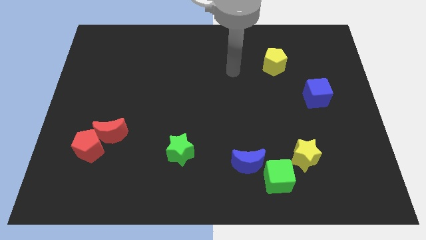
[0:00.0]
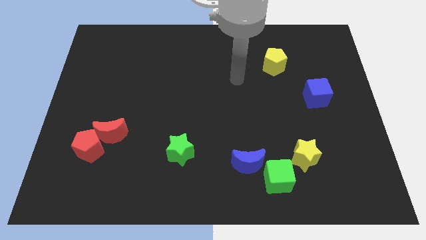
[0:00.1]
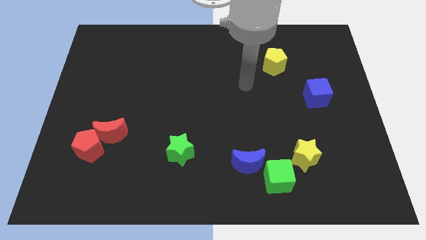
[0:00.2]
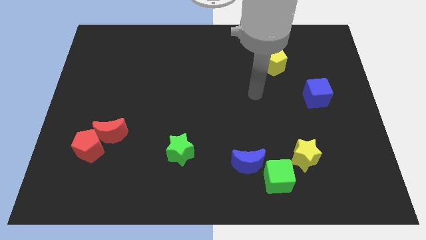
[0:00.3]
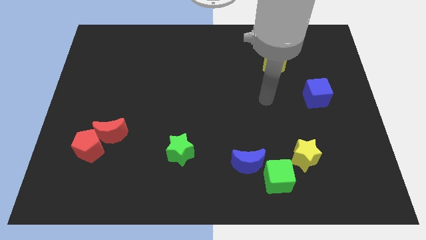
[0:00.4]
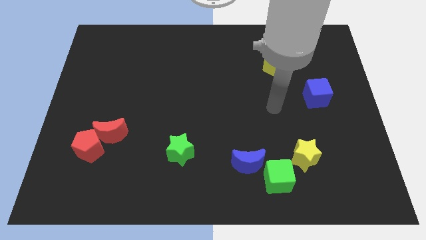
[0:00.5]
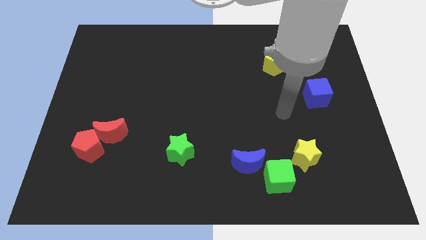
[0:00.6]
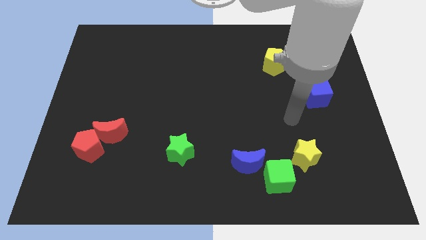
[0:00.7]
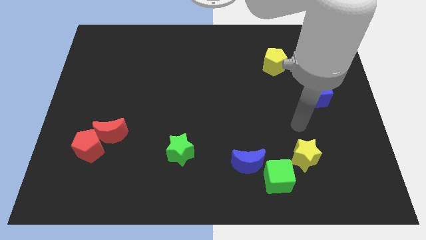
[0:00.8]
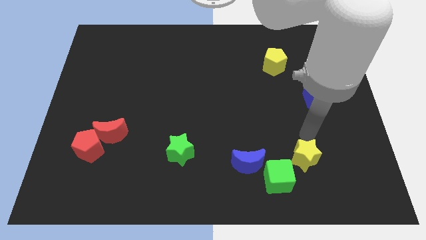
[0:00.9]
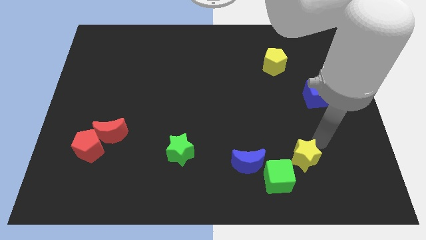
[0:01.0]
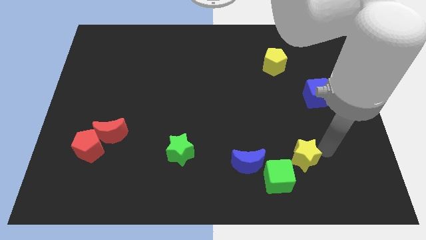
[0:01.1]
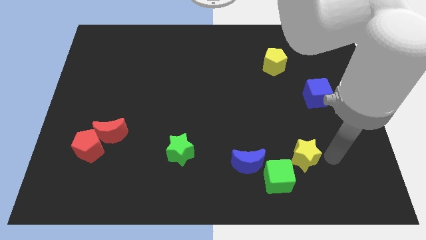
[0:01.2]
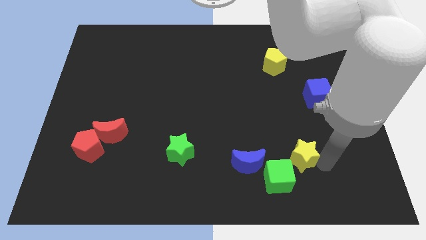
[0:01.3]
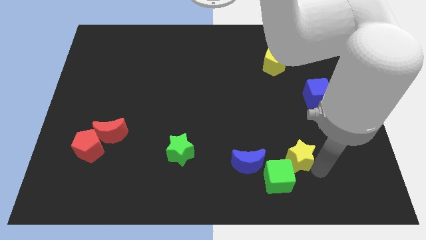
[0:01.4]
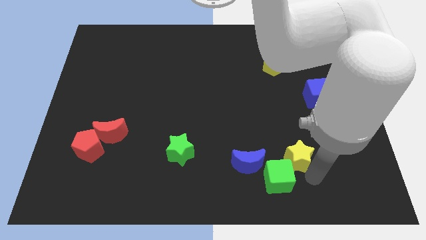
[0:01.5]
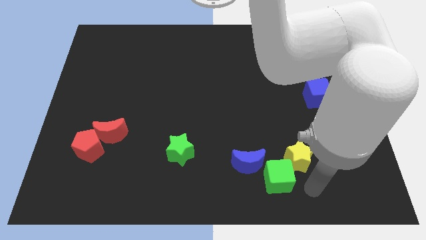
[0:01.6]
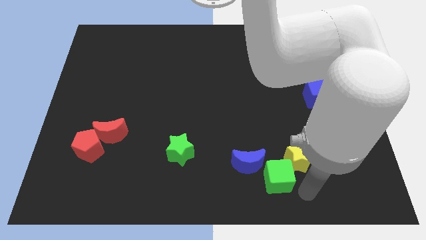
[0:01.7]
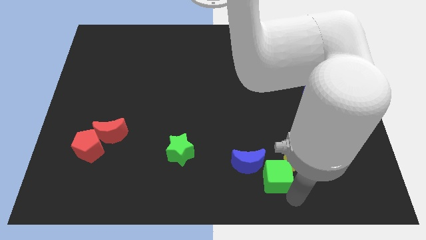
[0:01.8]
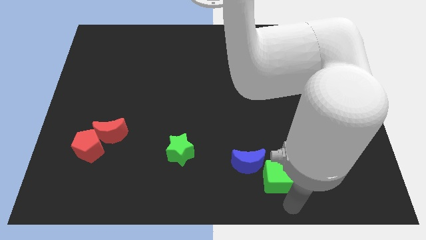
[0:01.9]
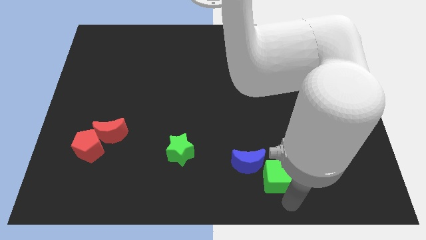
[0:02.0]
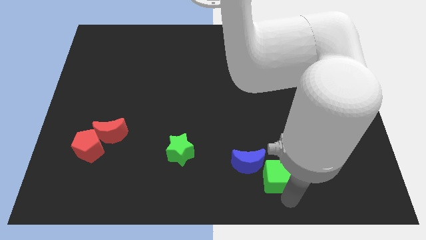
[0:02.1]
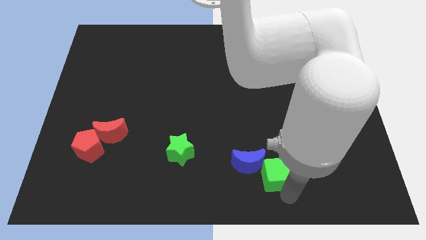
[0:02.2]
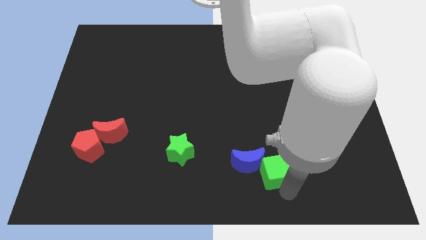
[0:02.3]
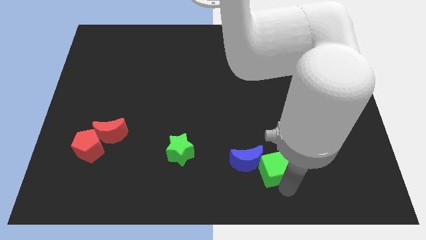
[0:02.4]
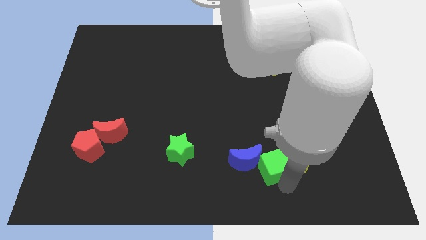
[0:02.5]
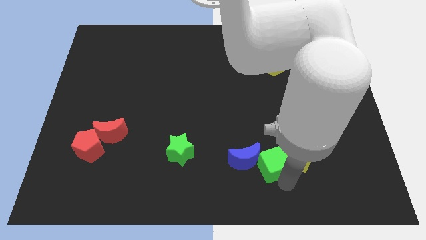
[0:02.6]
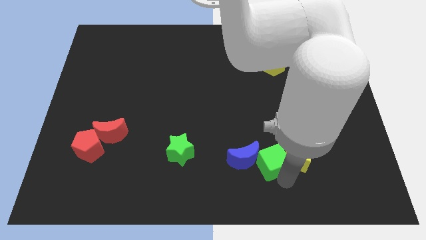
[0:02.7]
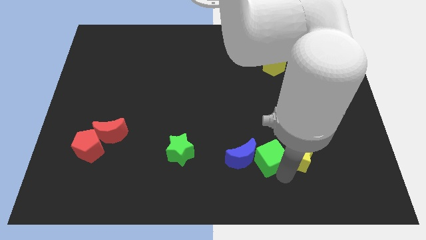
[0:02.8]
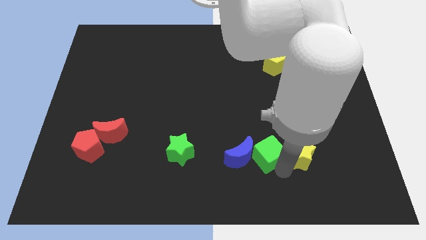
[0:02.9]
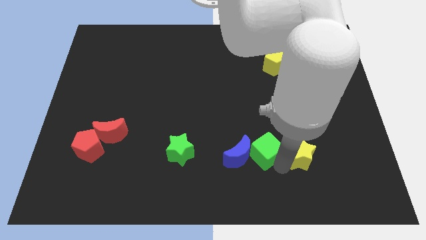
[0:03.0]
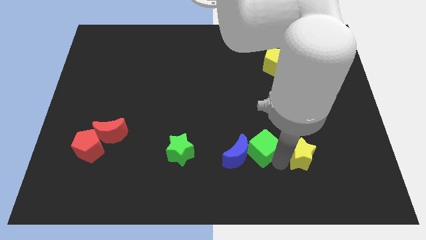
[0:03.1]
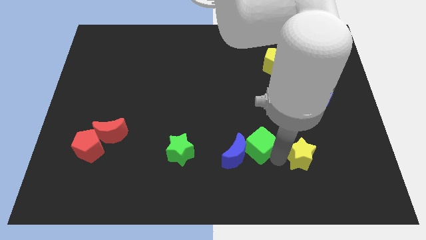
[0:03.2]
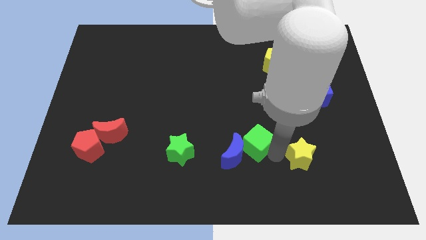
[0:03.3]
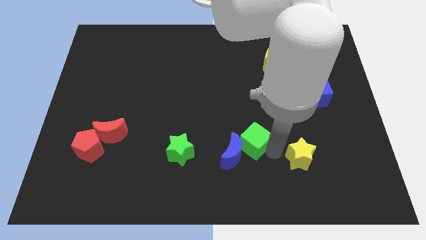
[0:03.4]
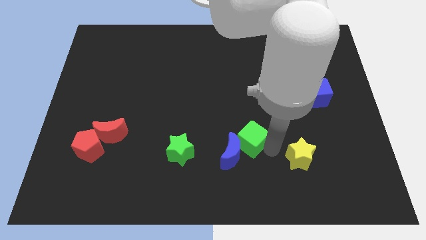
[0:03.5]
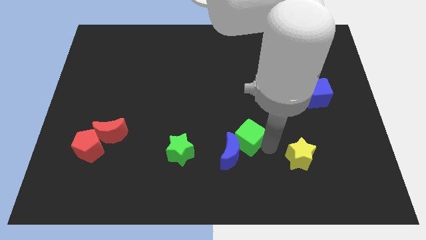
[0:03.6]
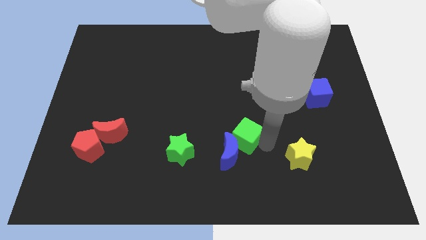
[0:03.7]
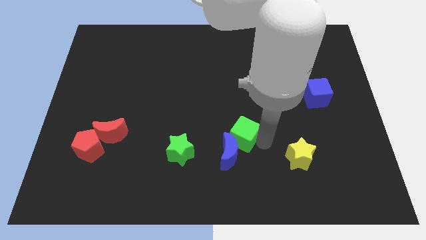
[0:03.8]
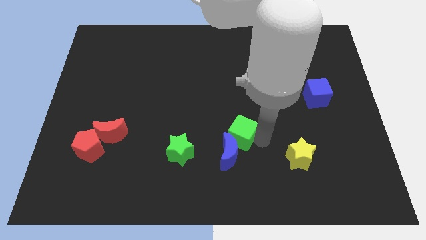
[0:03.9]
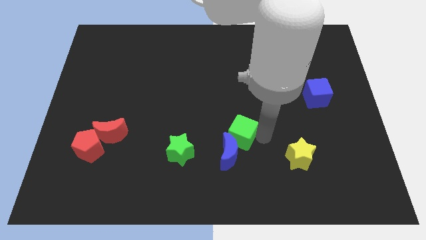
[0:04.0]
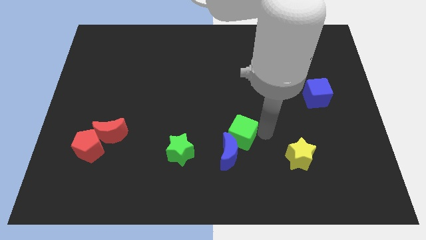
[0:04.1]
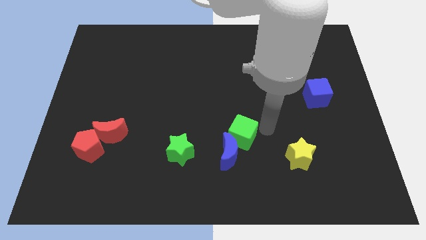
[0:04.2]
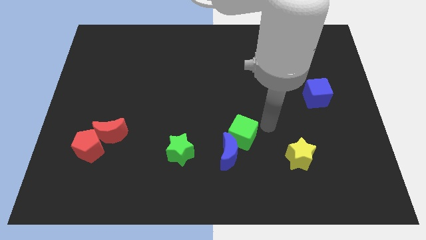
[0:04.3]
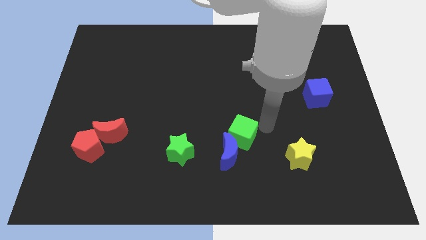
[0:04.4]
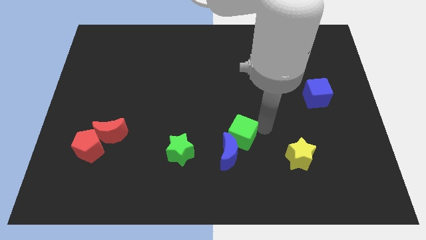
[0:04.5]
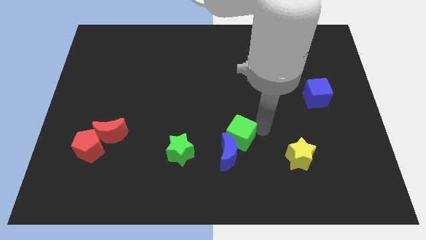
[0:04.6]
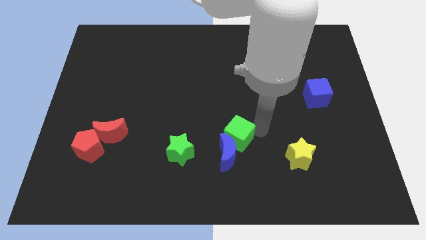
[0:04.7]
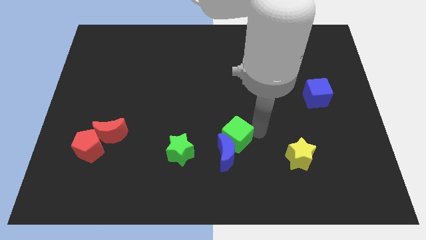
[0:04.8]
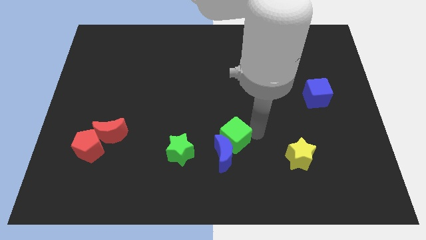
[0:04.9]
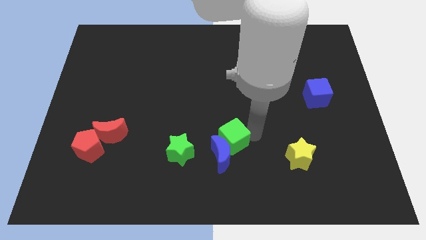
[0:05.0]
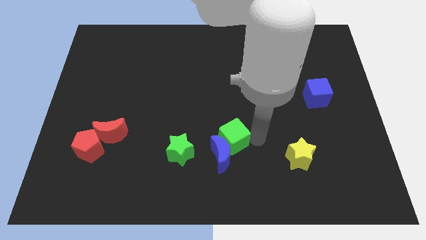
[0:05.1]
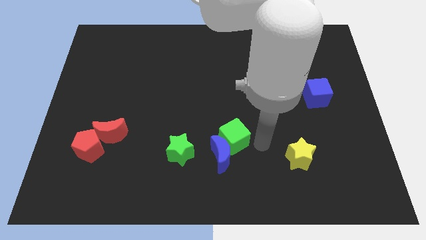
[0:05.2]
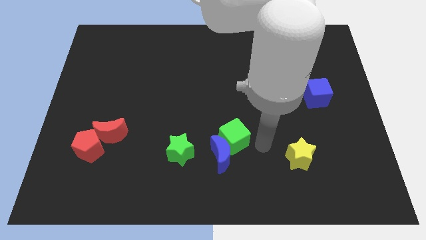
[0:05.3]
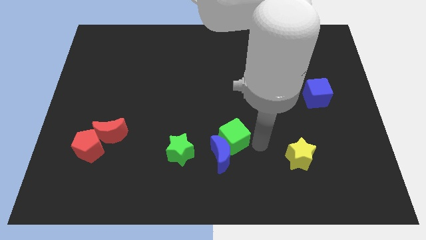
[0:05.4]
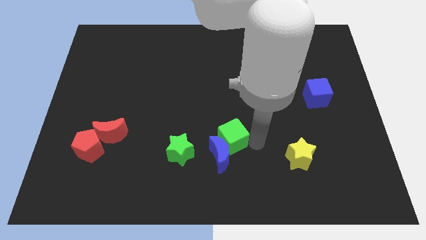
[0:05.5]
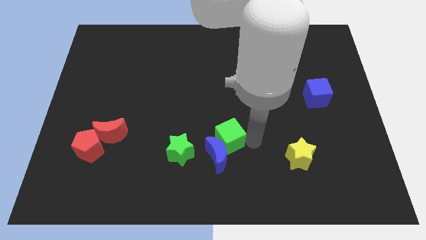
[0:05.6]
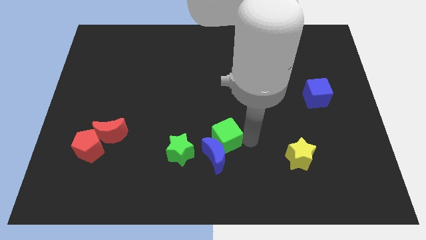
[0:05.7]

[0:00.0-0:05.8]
push the green cube to the top right of the green star

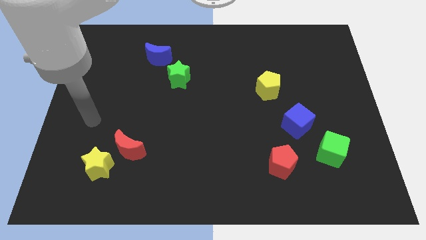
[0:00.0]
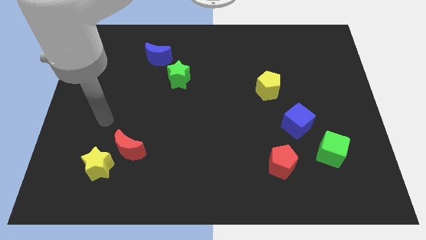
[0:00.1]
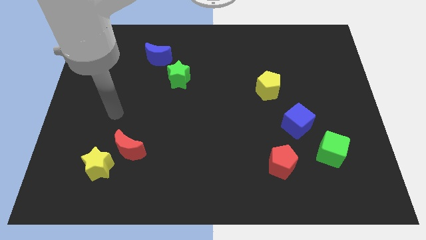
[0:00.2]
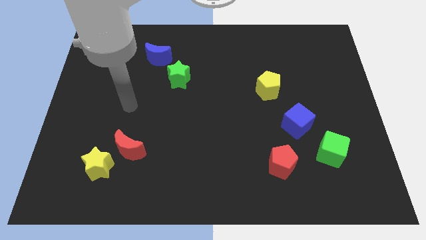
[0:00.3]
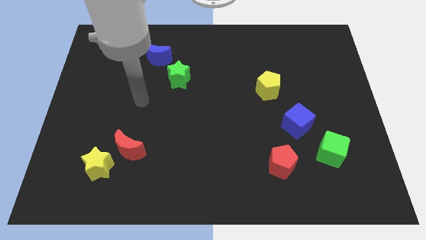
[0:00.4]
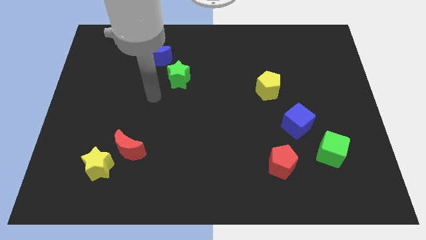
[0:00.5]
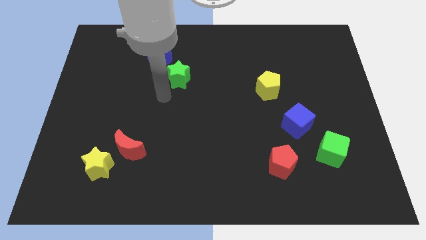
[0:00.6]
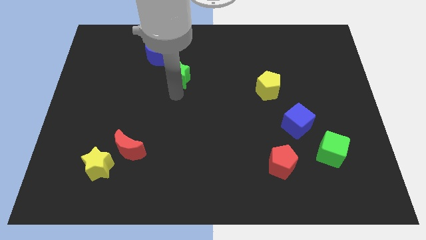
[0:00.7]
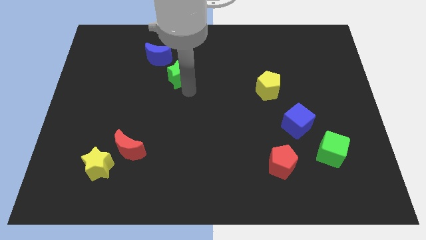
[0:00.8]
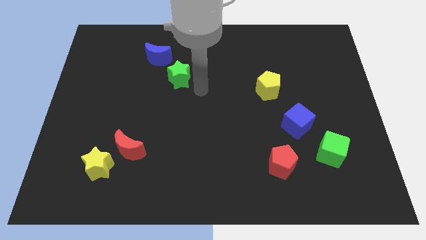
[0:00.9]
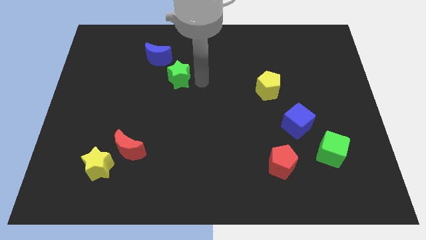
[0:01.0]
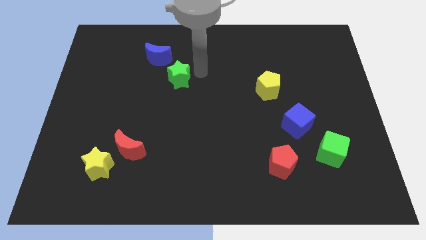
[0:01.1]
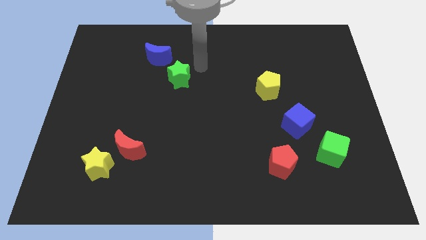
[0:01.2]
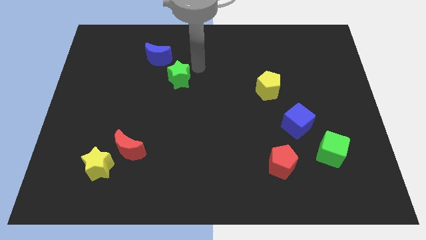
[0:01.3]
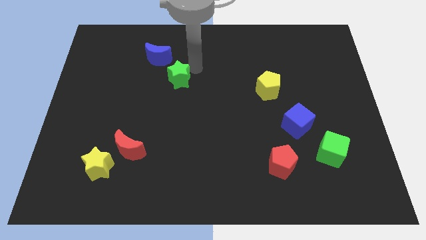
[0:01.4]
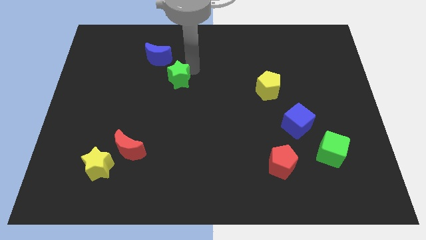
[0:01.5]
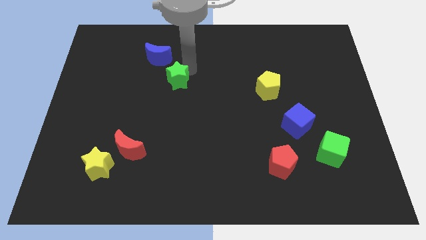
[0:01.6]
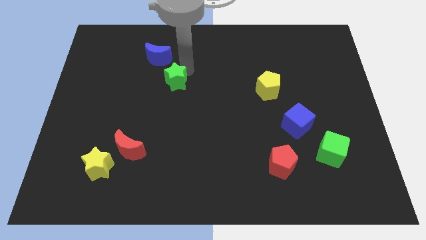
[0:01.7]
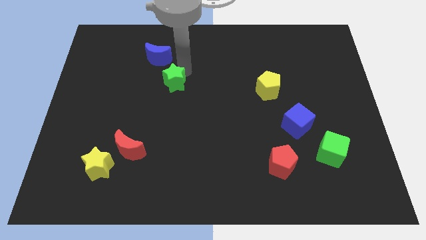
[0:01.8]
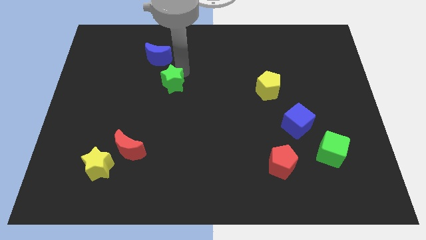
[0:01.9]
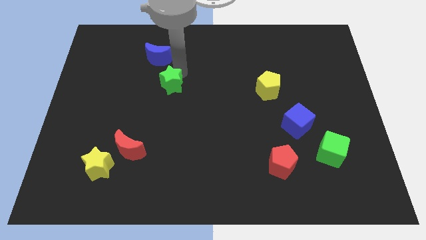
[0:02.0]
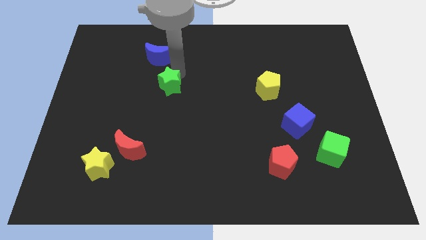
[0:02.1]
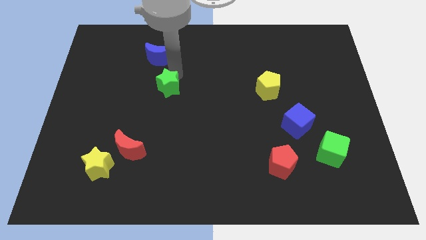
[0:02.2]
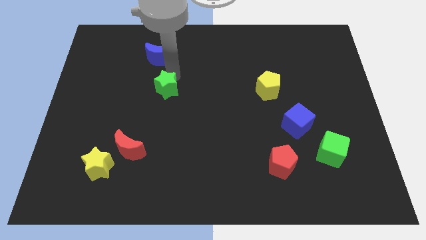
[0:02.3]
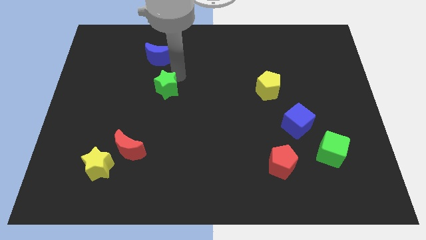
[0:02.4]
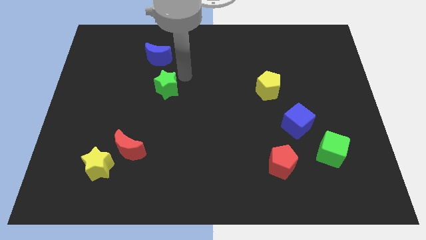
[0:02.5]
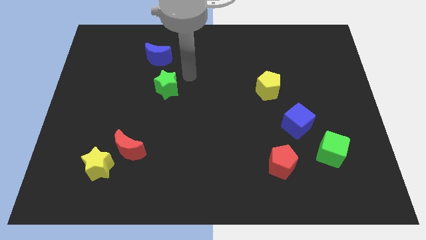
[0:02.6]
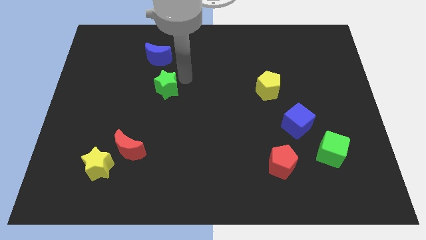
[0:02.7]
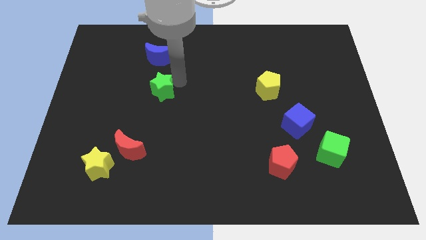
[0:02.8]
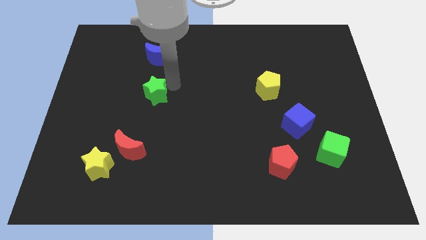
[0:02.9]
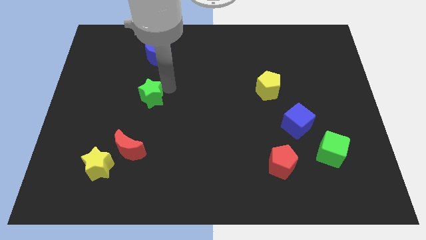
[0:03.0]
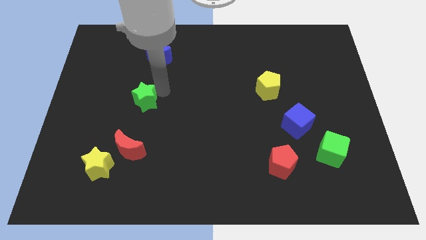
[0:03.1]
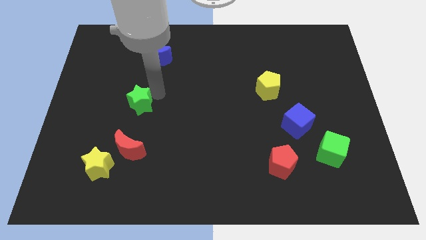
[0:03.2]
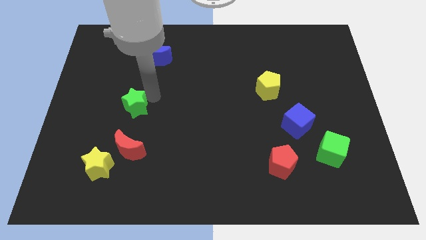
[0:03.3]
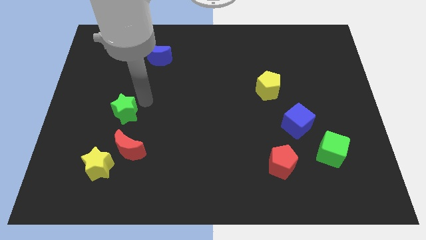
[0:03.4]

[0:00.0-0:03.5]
push the green star to the top side of the yellow star
